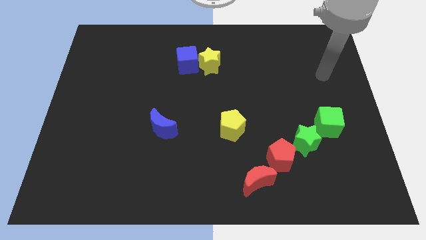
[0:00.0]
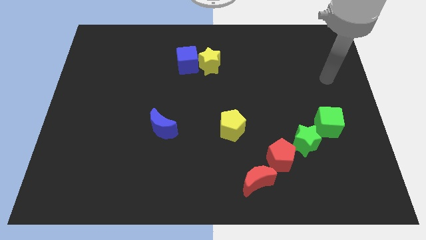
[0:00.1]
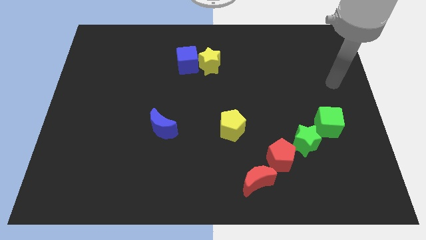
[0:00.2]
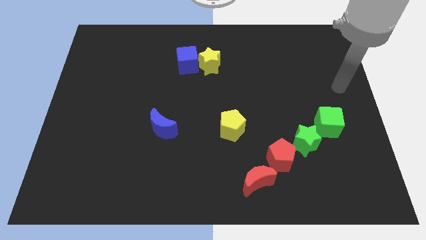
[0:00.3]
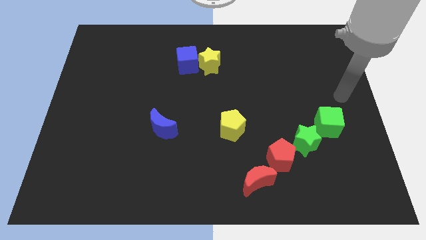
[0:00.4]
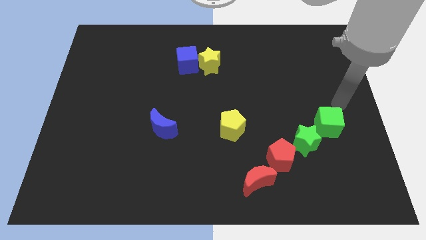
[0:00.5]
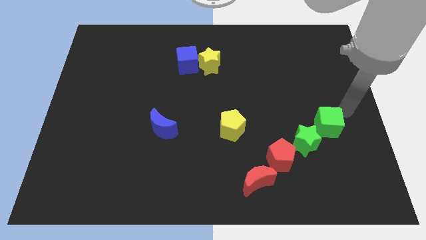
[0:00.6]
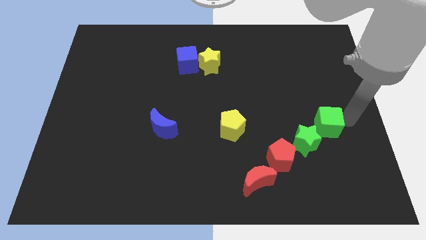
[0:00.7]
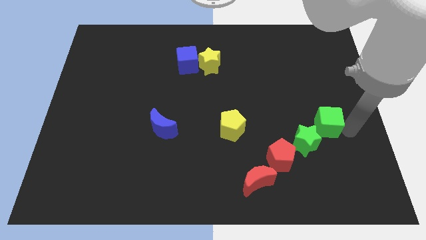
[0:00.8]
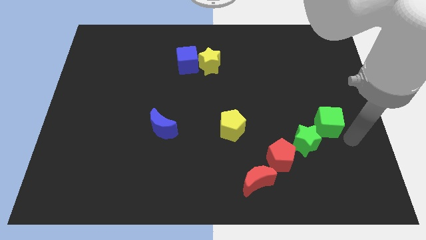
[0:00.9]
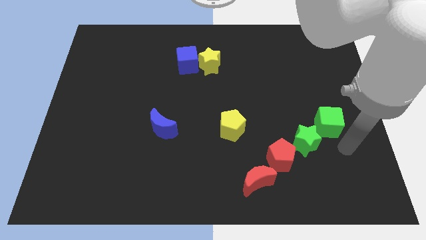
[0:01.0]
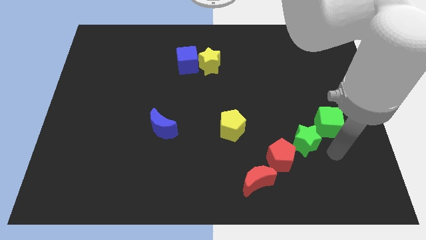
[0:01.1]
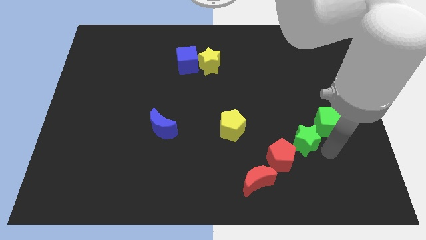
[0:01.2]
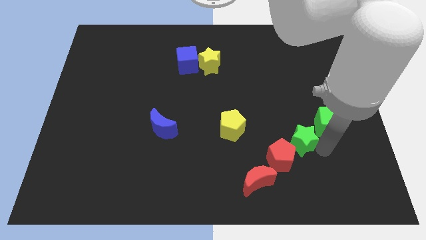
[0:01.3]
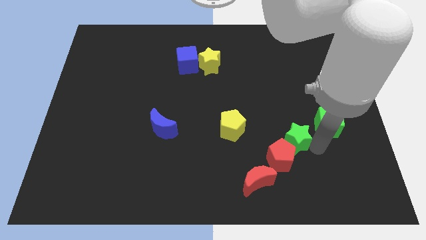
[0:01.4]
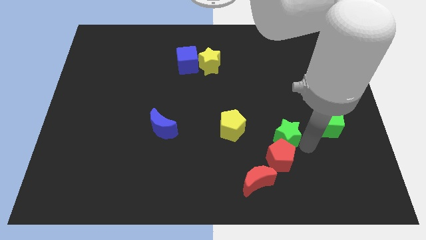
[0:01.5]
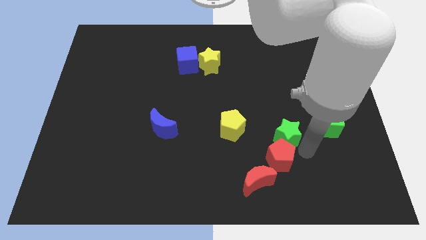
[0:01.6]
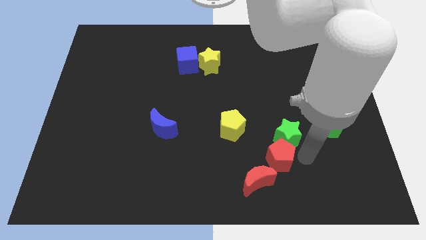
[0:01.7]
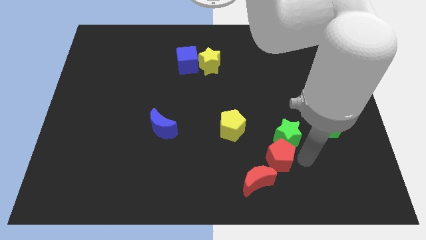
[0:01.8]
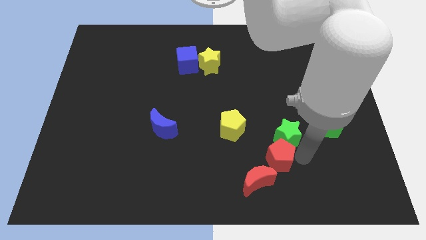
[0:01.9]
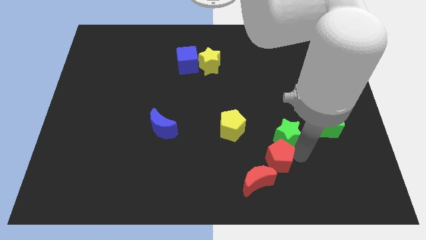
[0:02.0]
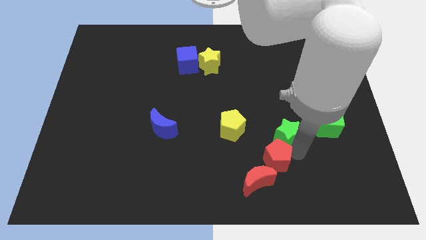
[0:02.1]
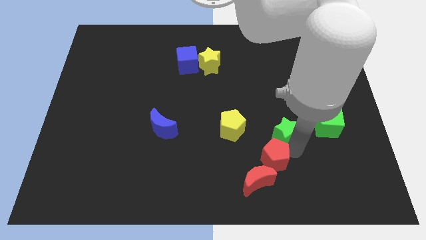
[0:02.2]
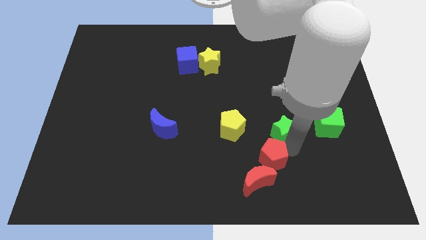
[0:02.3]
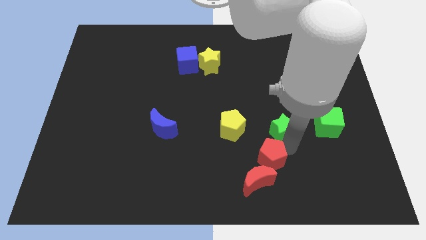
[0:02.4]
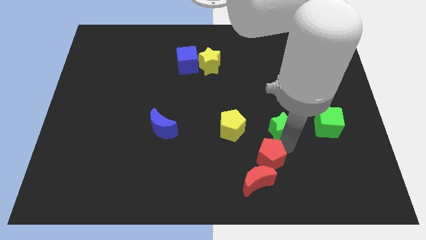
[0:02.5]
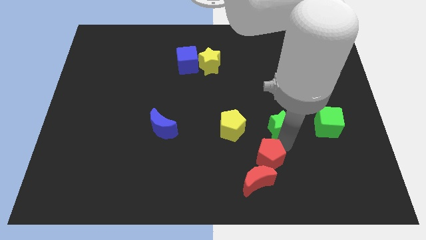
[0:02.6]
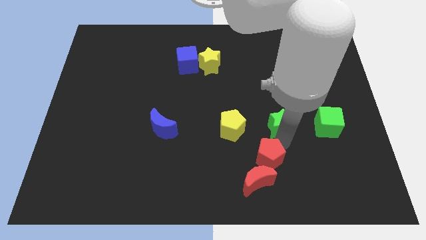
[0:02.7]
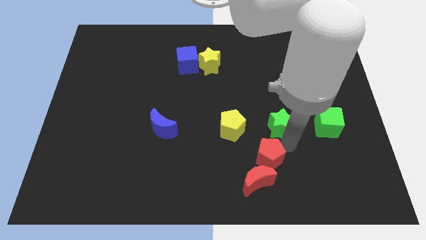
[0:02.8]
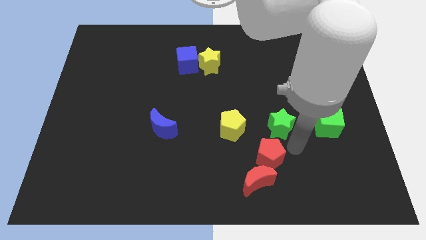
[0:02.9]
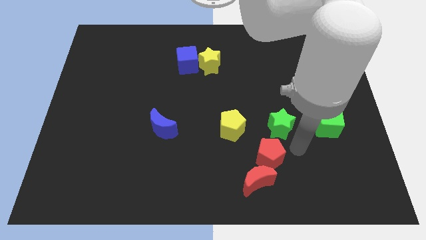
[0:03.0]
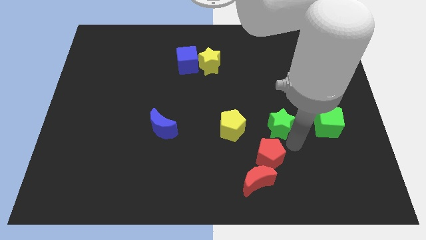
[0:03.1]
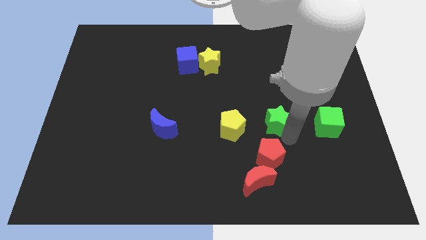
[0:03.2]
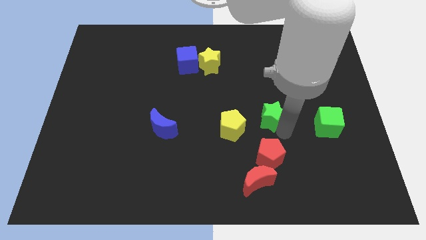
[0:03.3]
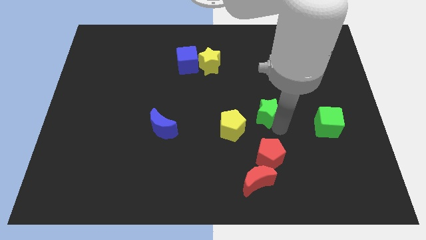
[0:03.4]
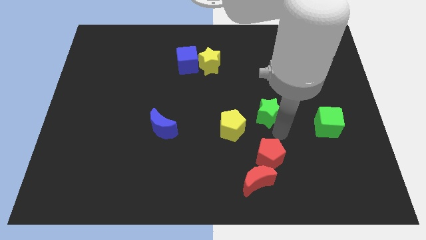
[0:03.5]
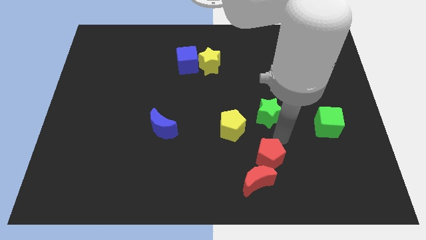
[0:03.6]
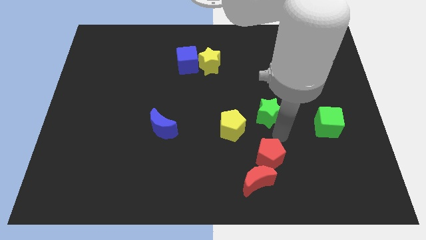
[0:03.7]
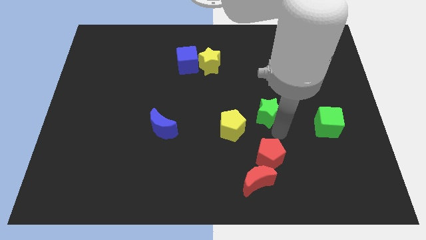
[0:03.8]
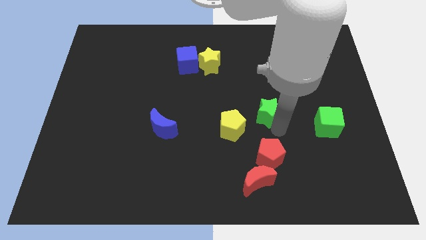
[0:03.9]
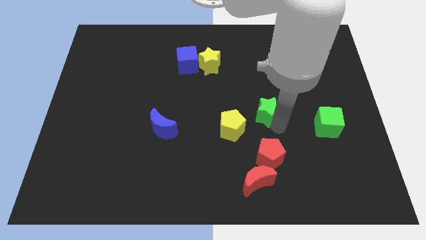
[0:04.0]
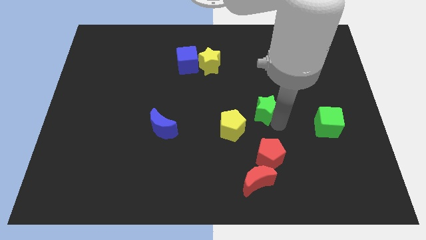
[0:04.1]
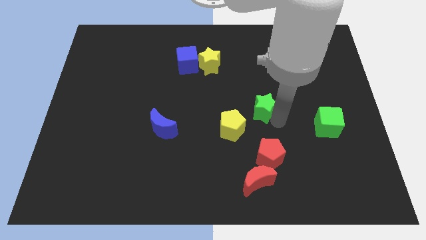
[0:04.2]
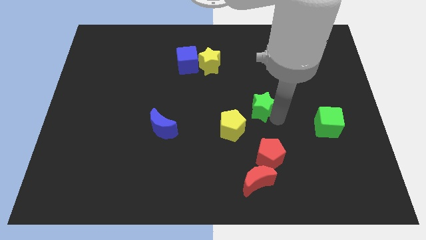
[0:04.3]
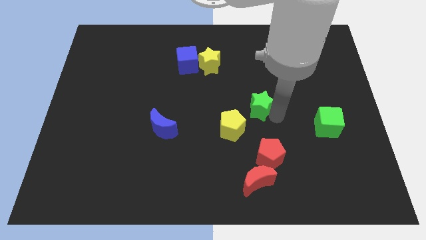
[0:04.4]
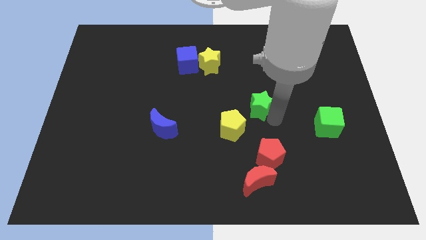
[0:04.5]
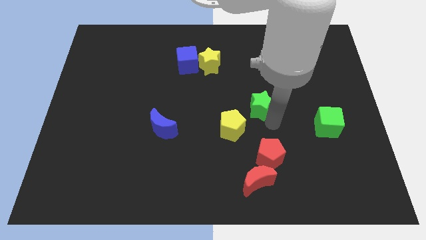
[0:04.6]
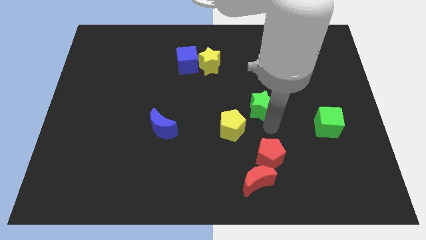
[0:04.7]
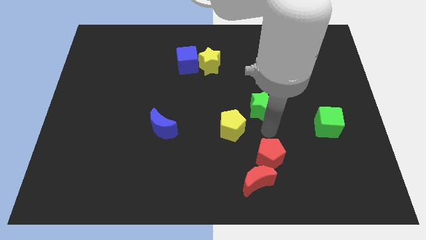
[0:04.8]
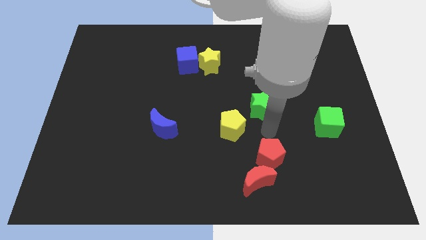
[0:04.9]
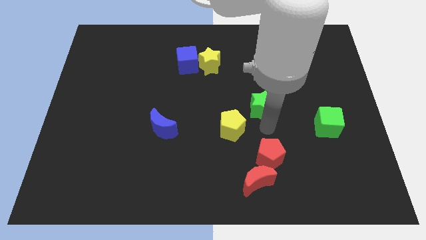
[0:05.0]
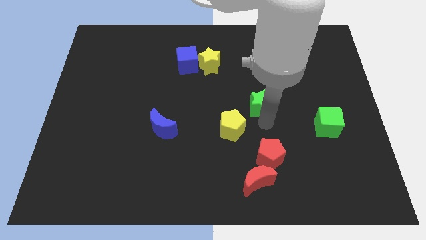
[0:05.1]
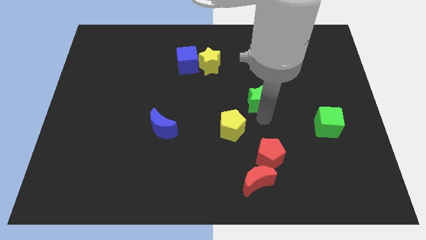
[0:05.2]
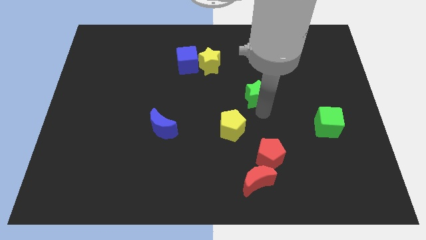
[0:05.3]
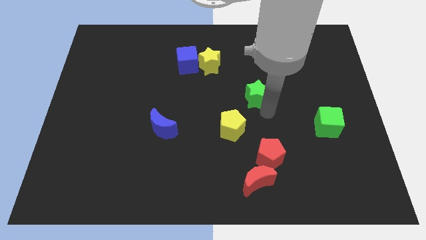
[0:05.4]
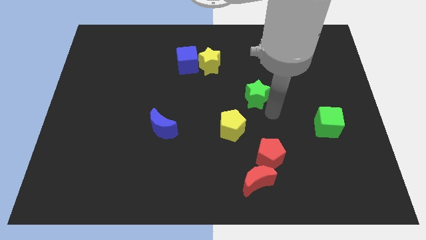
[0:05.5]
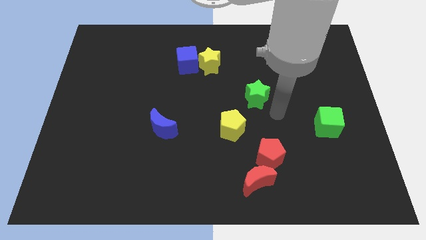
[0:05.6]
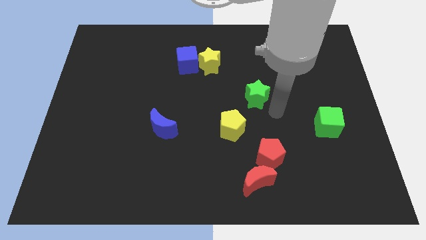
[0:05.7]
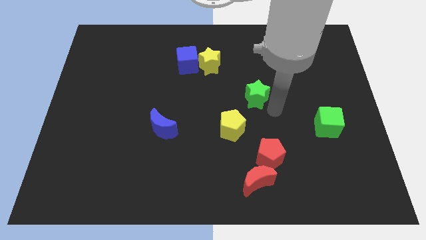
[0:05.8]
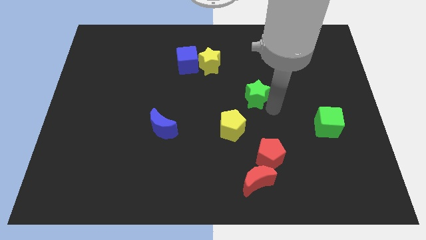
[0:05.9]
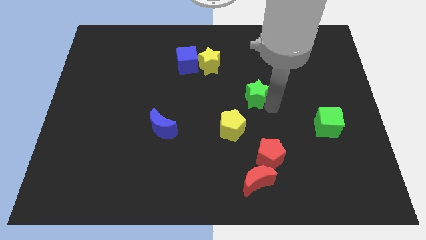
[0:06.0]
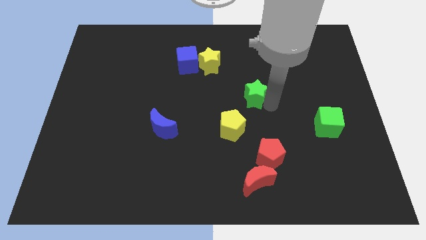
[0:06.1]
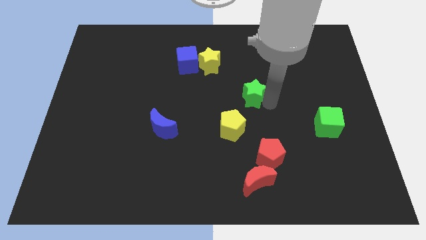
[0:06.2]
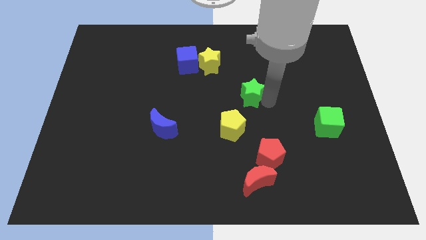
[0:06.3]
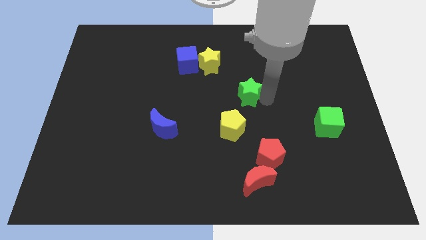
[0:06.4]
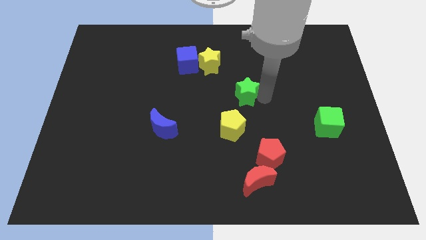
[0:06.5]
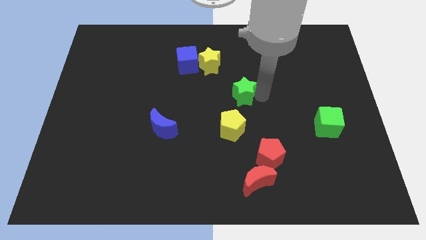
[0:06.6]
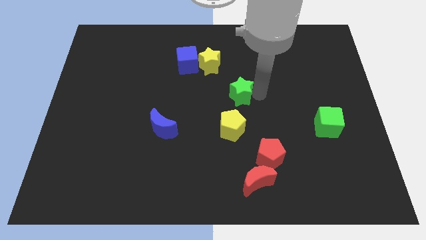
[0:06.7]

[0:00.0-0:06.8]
slide the green star to the bottom right side of the yellow star

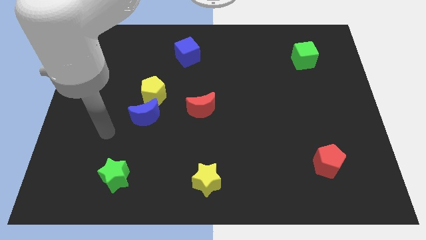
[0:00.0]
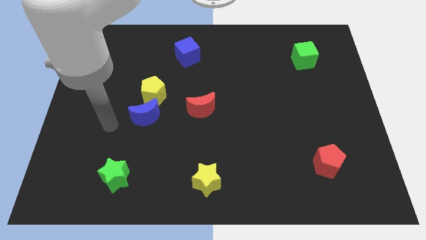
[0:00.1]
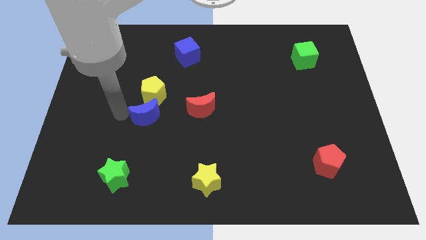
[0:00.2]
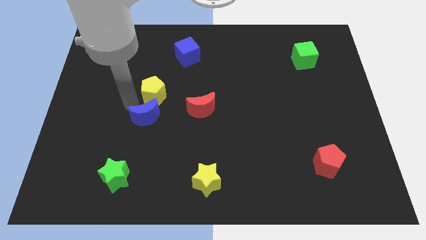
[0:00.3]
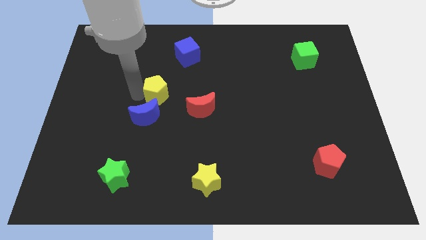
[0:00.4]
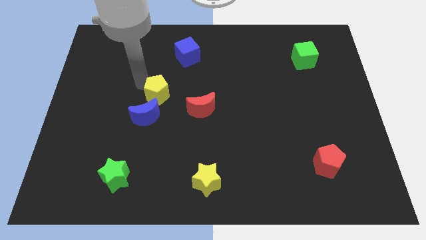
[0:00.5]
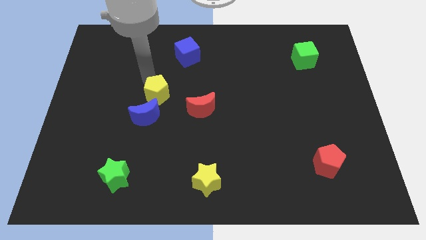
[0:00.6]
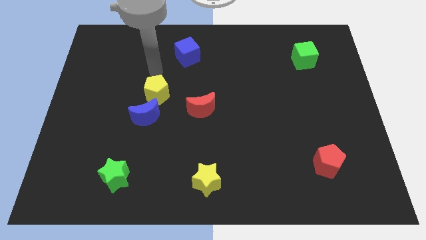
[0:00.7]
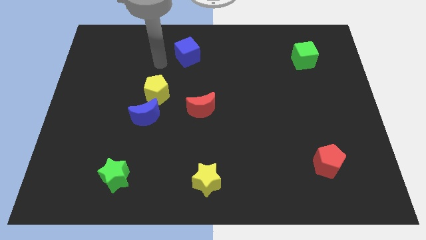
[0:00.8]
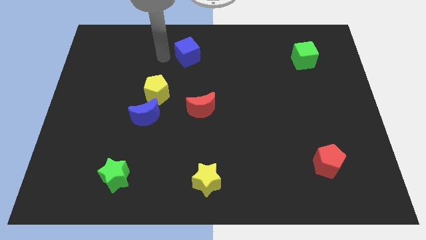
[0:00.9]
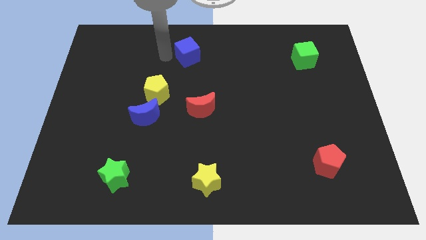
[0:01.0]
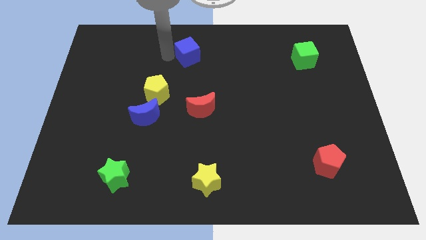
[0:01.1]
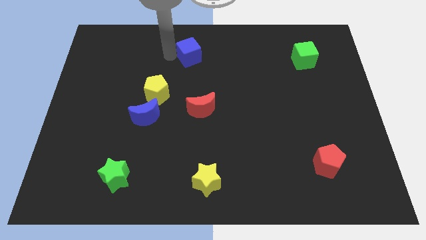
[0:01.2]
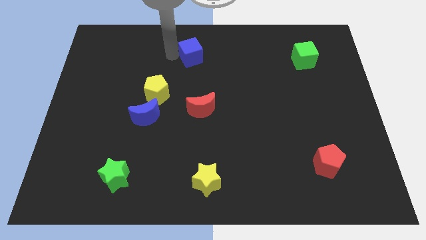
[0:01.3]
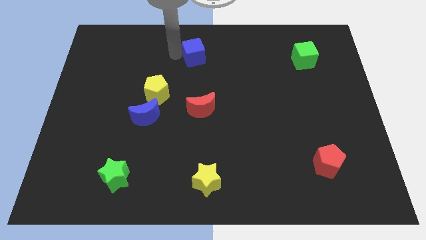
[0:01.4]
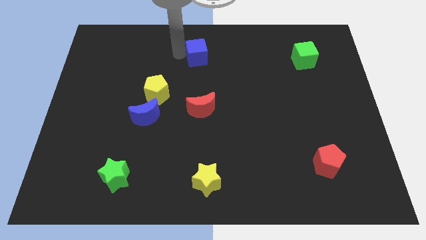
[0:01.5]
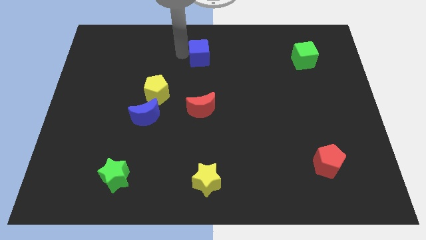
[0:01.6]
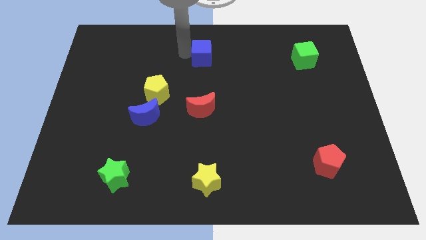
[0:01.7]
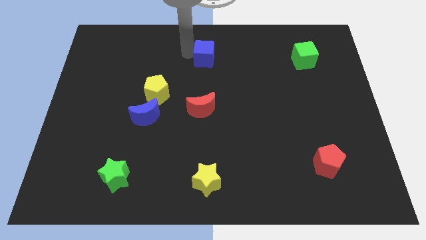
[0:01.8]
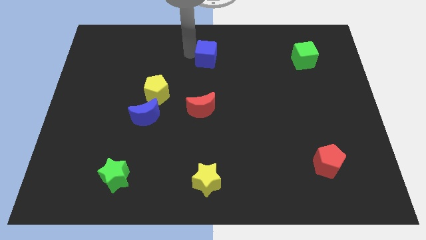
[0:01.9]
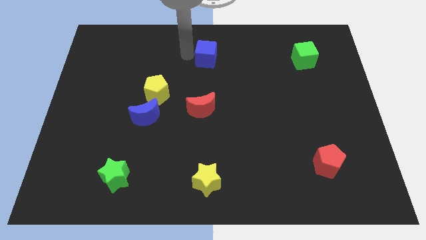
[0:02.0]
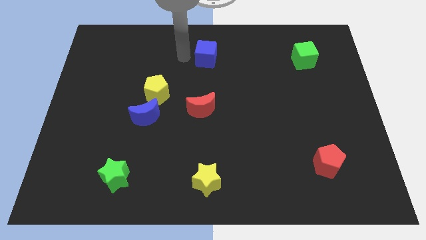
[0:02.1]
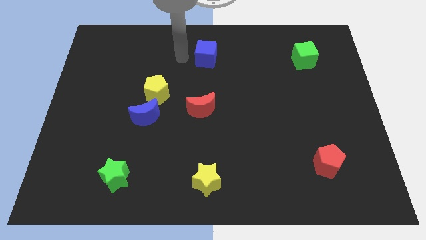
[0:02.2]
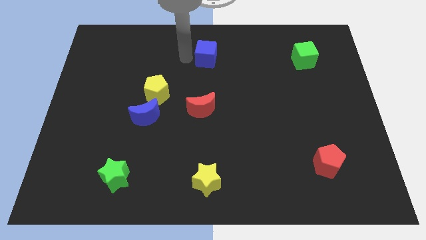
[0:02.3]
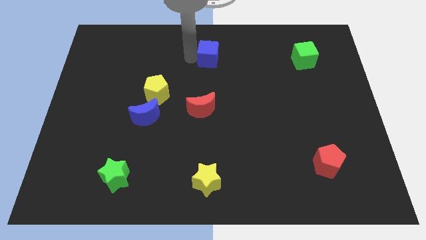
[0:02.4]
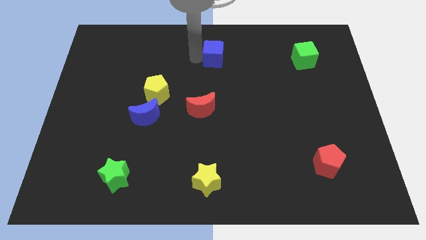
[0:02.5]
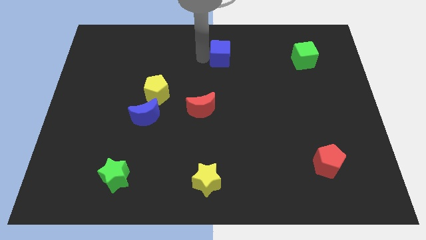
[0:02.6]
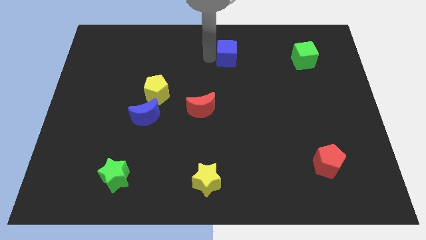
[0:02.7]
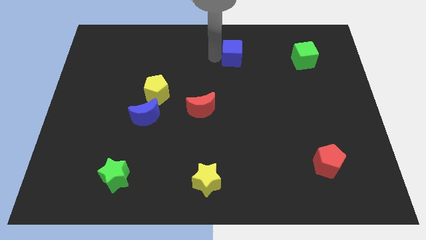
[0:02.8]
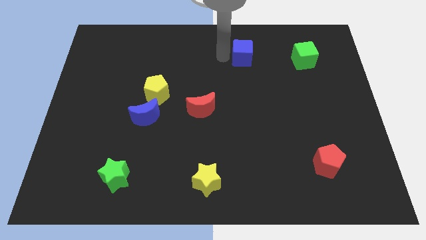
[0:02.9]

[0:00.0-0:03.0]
push the blue cube to the left side of the green cube
